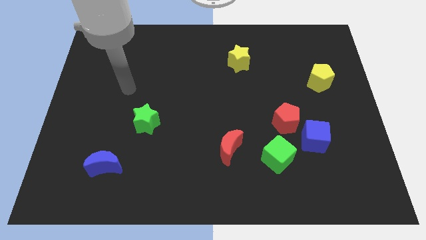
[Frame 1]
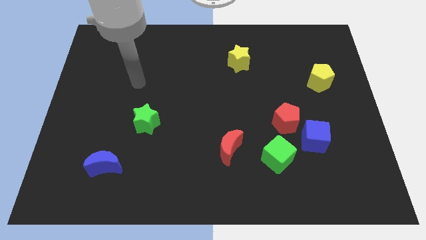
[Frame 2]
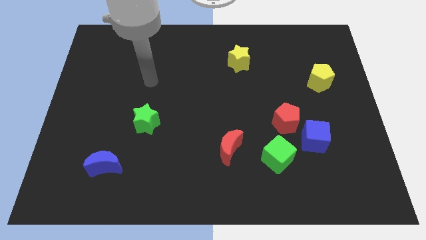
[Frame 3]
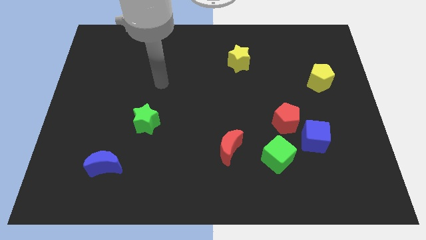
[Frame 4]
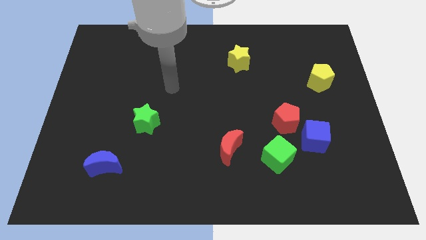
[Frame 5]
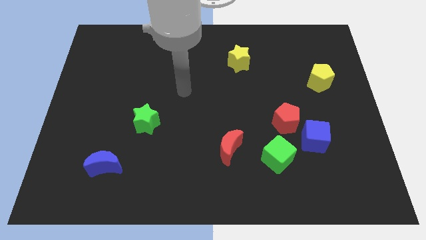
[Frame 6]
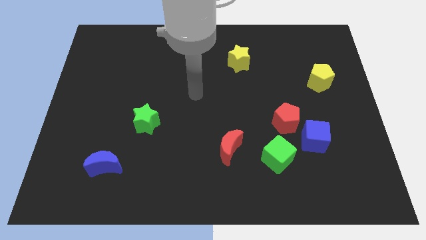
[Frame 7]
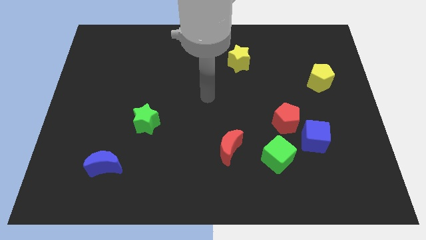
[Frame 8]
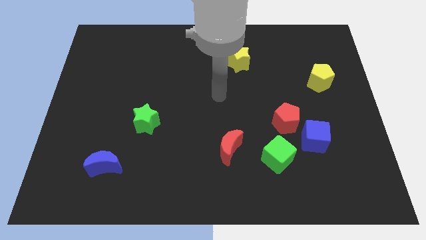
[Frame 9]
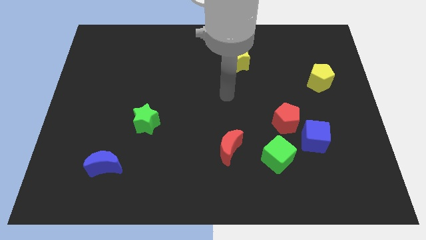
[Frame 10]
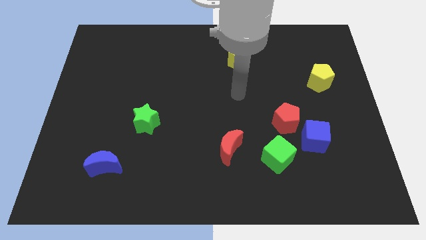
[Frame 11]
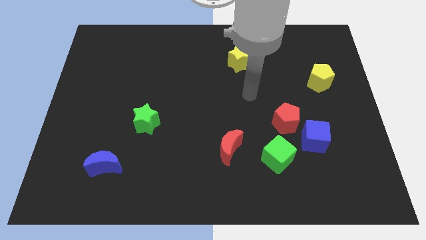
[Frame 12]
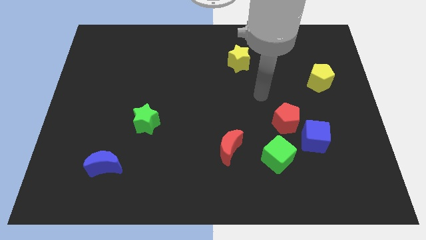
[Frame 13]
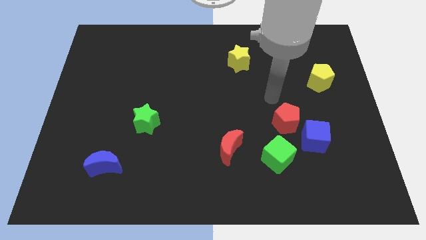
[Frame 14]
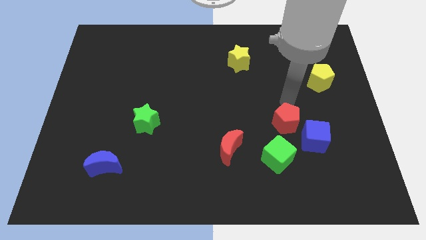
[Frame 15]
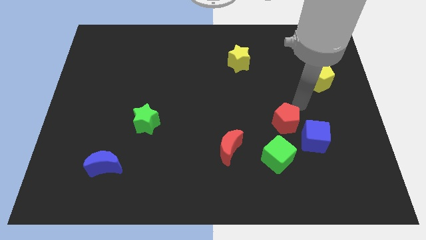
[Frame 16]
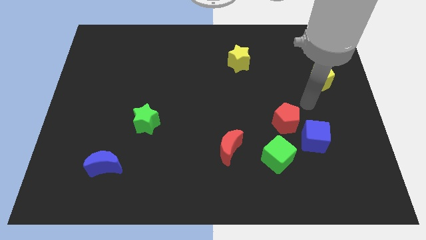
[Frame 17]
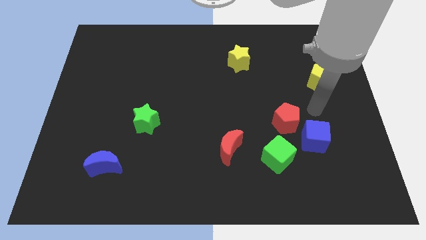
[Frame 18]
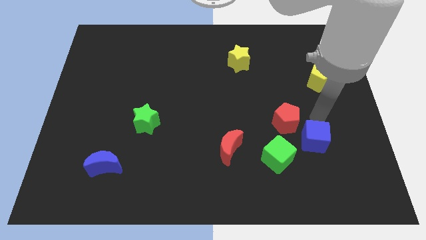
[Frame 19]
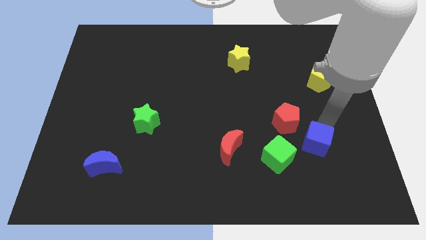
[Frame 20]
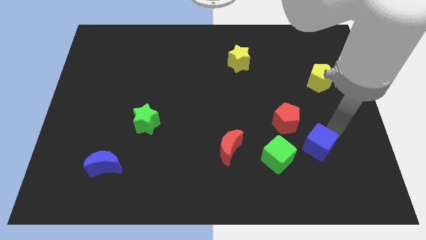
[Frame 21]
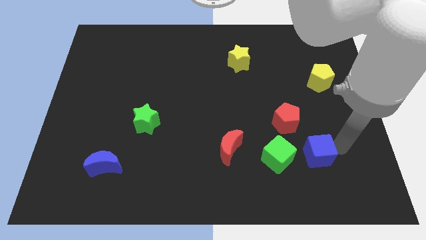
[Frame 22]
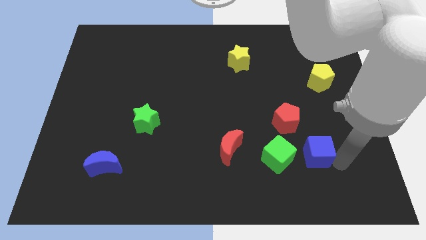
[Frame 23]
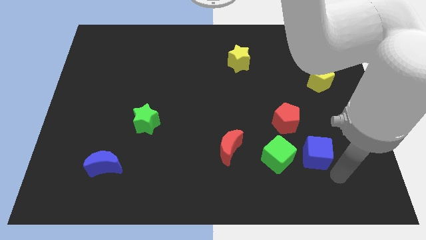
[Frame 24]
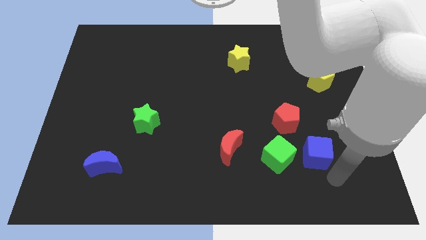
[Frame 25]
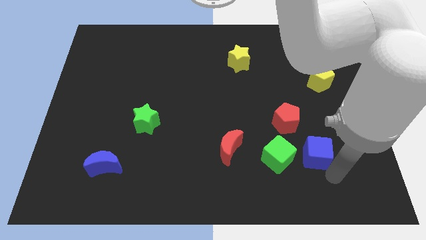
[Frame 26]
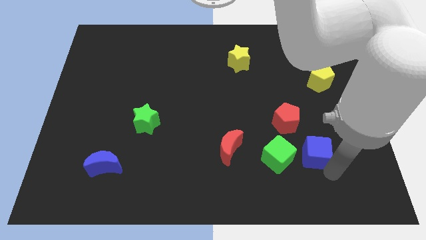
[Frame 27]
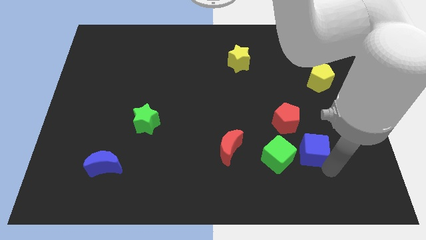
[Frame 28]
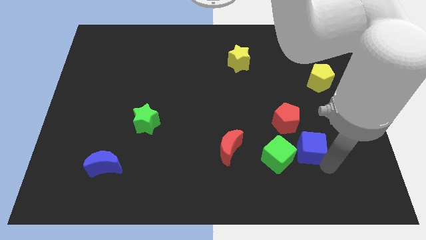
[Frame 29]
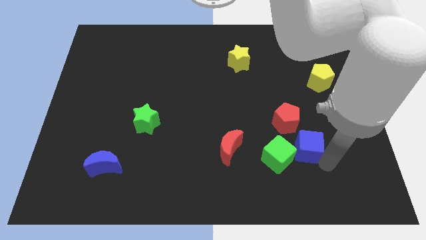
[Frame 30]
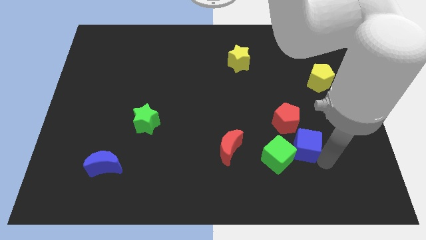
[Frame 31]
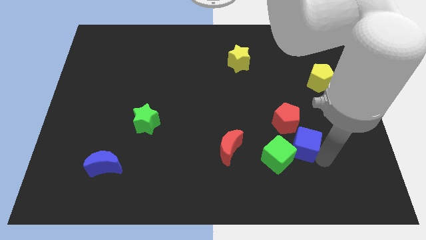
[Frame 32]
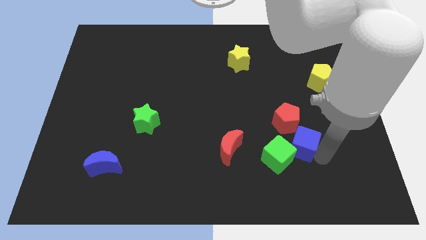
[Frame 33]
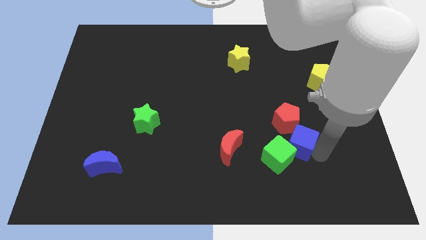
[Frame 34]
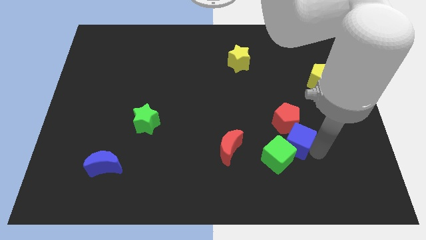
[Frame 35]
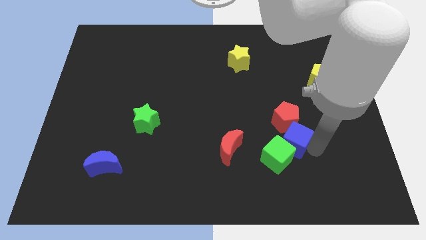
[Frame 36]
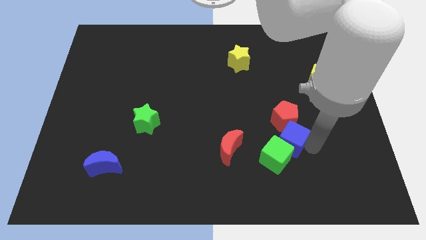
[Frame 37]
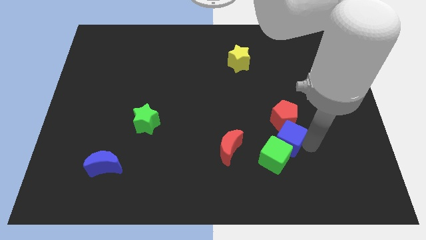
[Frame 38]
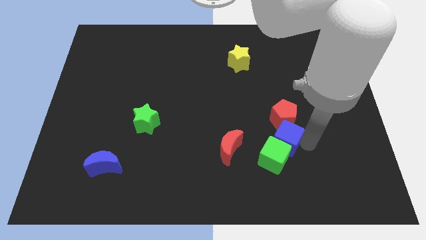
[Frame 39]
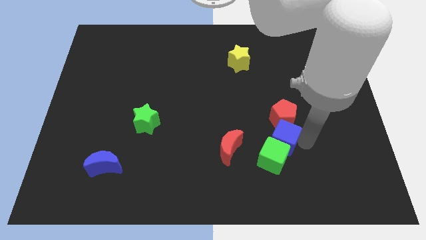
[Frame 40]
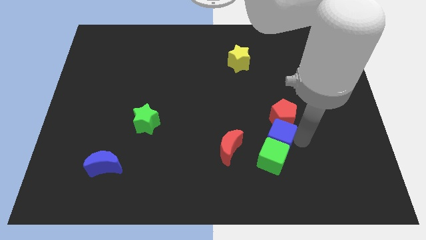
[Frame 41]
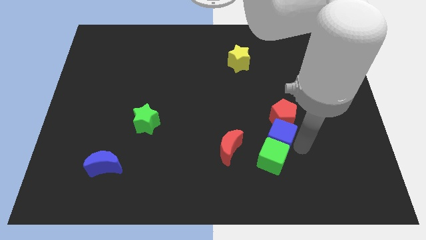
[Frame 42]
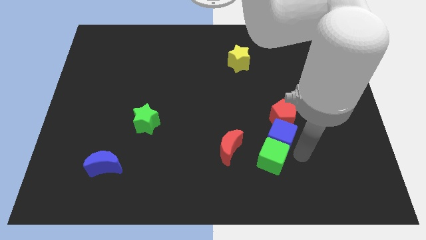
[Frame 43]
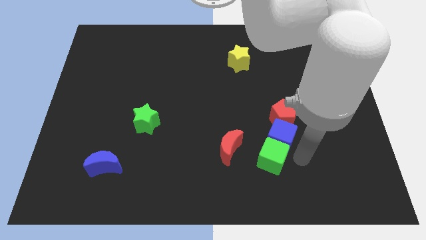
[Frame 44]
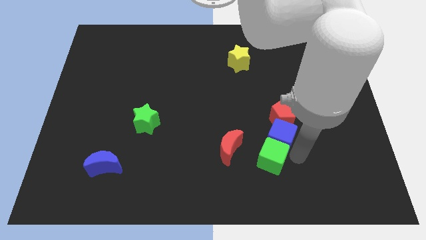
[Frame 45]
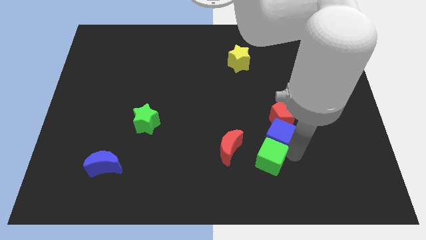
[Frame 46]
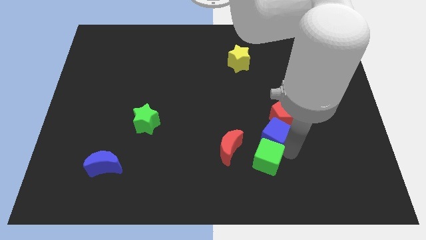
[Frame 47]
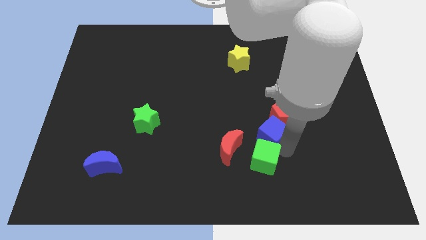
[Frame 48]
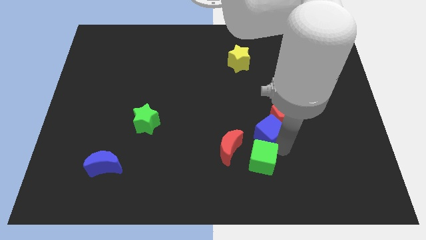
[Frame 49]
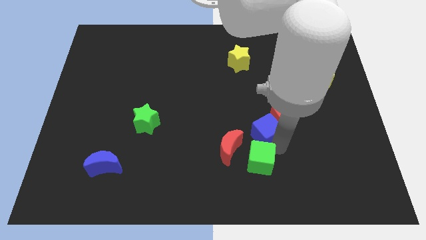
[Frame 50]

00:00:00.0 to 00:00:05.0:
push the blue cube up and then to the left a little bit

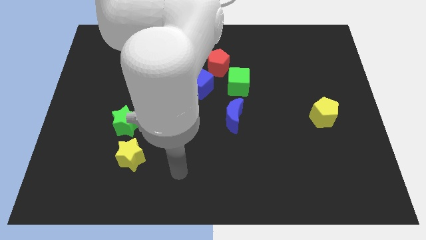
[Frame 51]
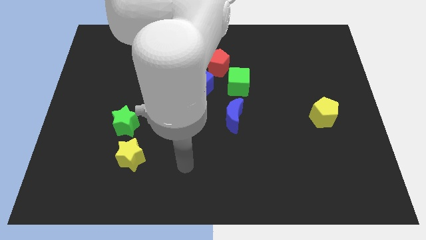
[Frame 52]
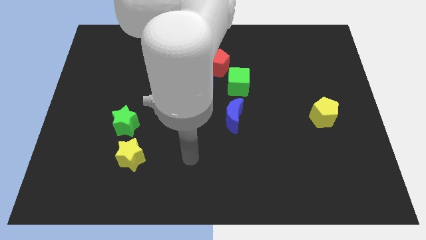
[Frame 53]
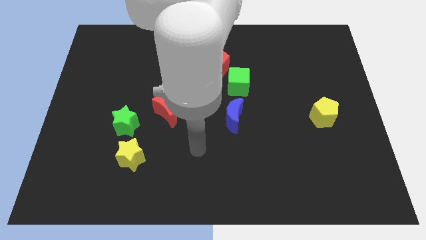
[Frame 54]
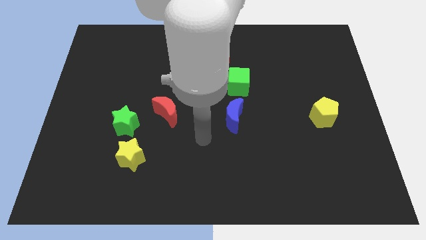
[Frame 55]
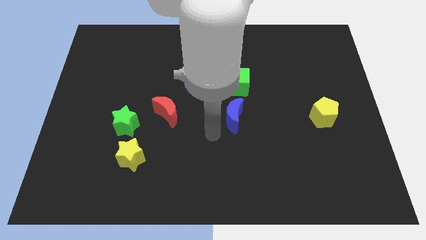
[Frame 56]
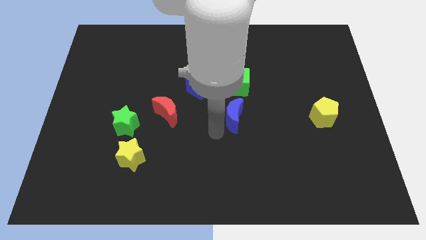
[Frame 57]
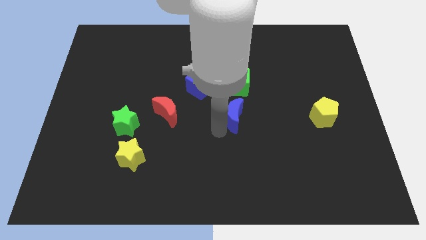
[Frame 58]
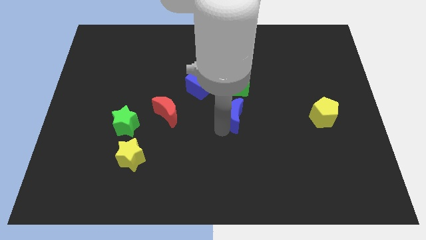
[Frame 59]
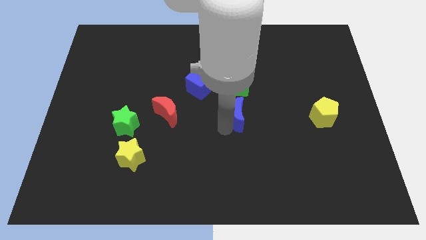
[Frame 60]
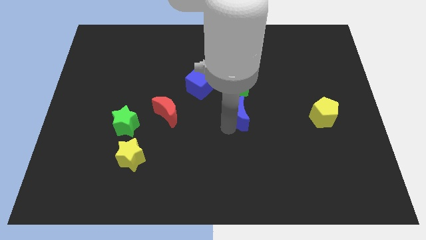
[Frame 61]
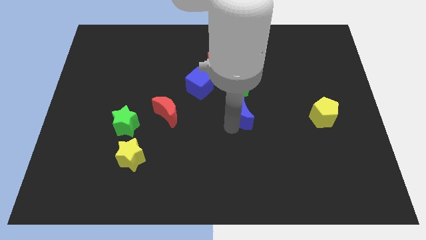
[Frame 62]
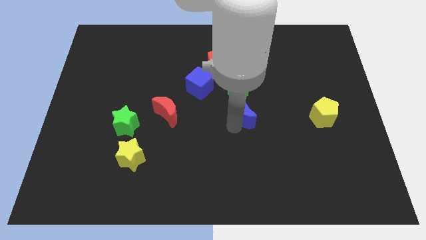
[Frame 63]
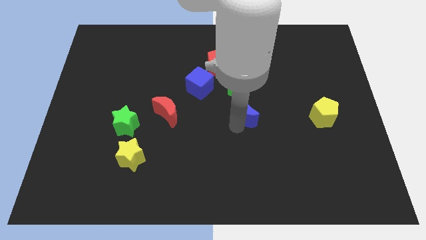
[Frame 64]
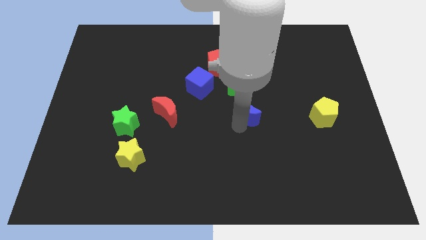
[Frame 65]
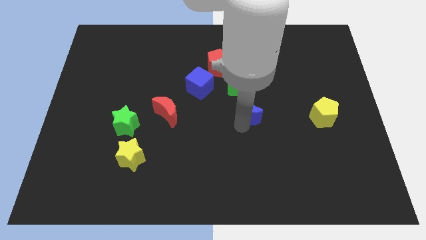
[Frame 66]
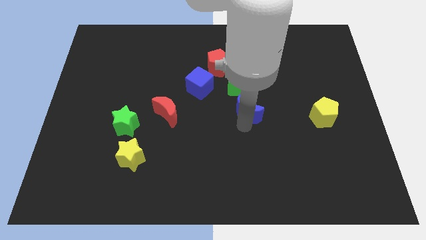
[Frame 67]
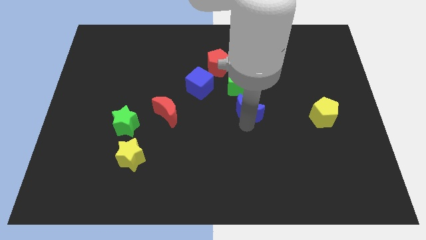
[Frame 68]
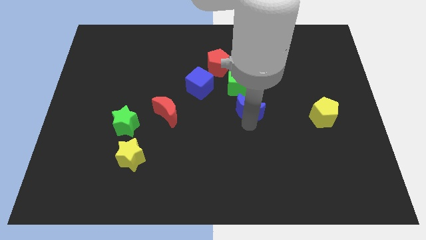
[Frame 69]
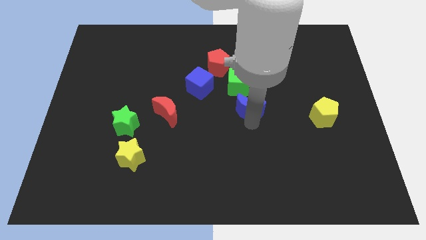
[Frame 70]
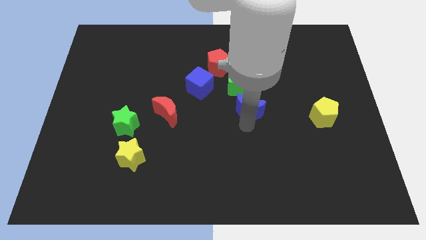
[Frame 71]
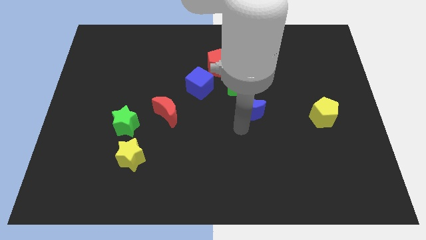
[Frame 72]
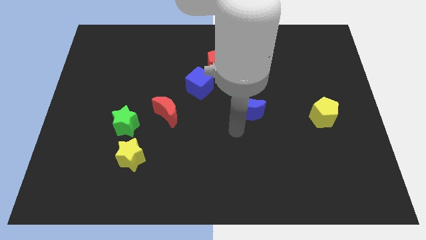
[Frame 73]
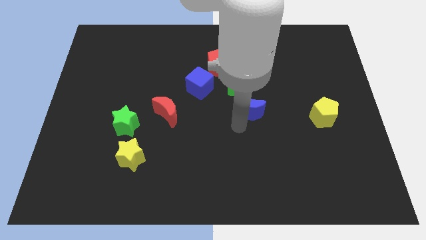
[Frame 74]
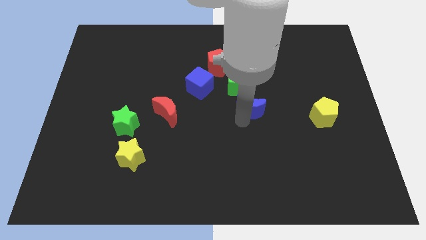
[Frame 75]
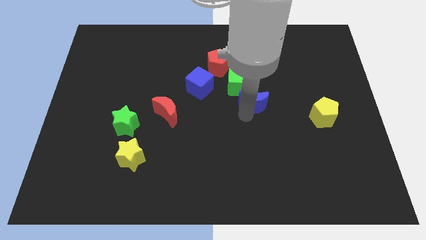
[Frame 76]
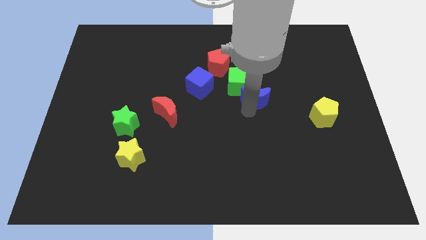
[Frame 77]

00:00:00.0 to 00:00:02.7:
slightly move the blue moon up and to the right

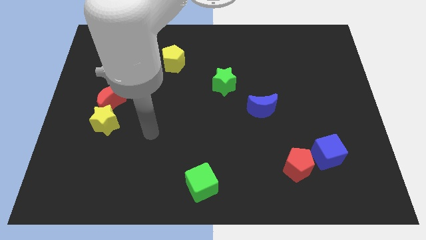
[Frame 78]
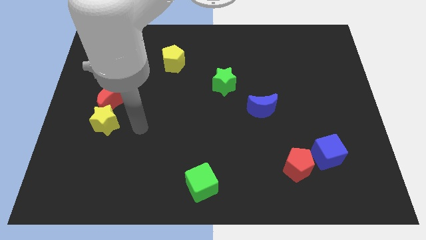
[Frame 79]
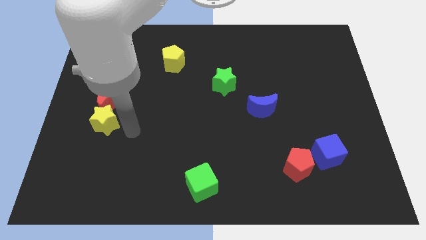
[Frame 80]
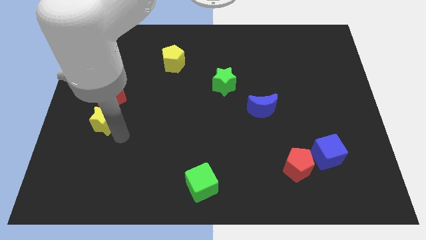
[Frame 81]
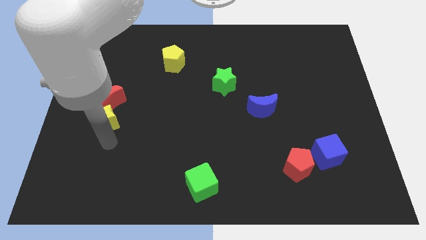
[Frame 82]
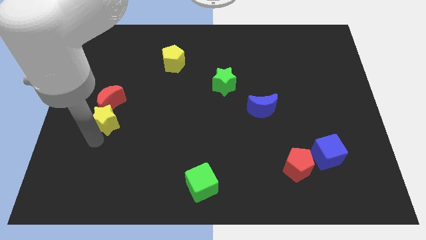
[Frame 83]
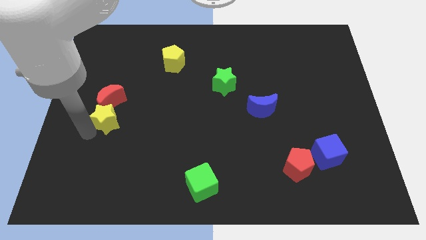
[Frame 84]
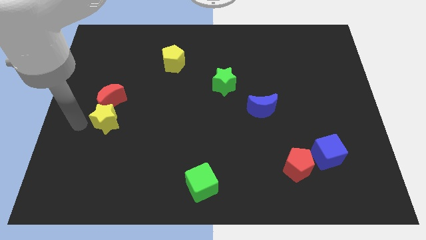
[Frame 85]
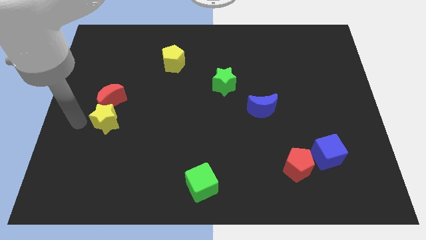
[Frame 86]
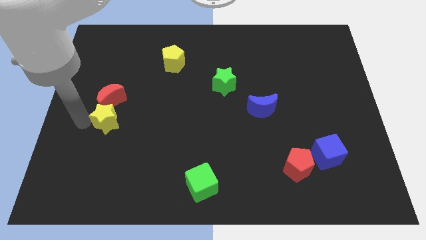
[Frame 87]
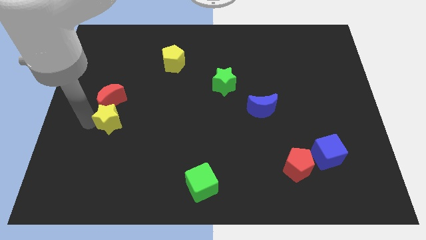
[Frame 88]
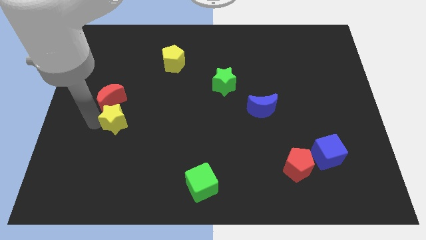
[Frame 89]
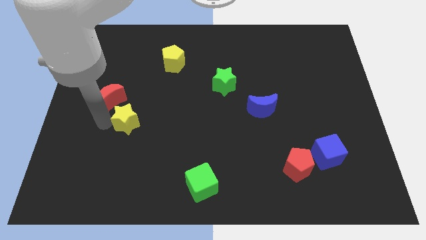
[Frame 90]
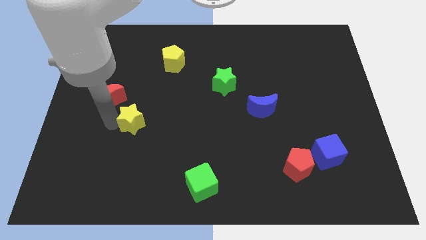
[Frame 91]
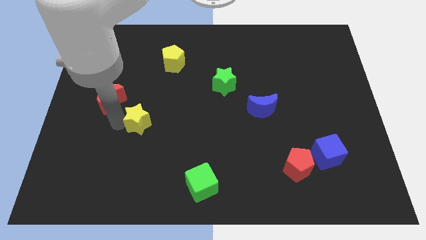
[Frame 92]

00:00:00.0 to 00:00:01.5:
slightly move the yellow star to the right
